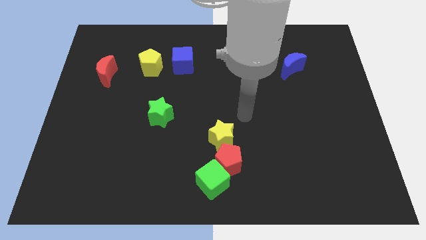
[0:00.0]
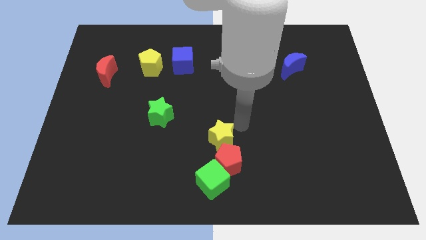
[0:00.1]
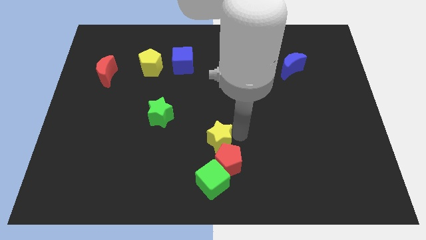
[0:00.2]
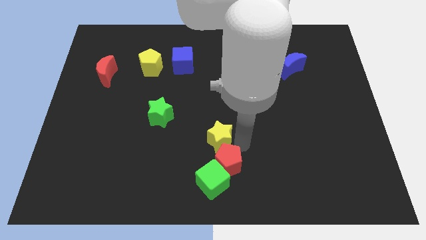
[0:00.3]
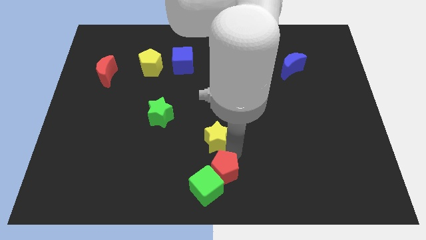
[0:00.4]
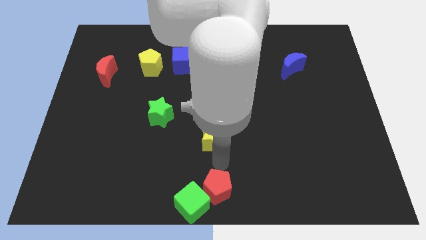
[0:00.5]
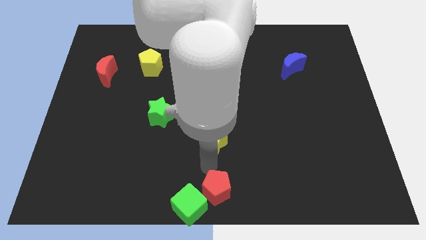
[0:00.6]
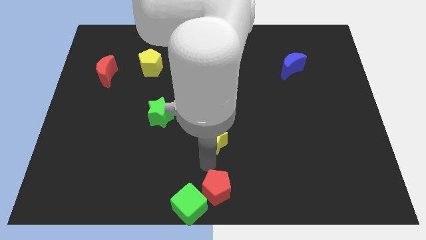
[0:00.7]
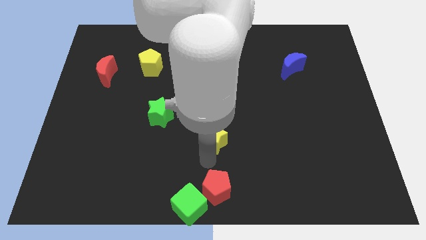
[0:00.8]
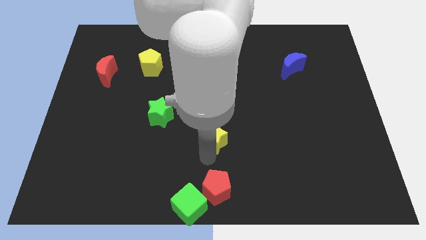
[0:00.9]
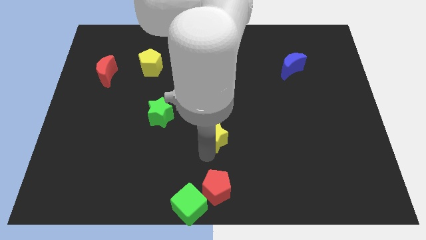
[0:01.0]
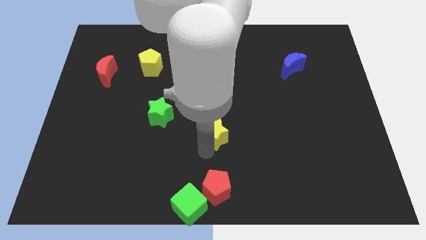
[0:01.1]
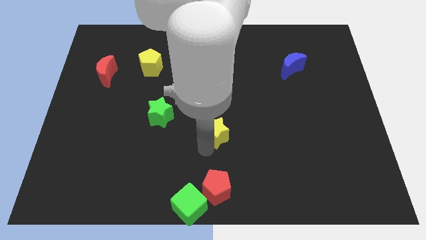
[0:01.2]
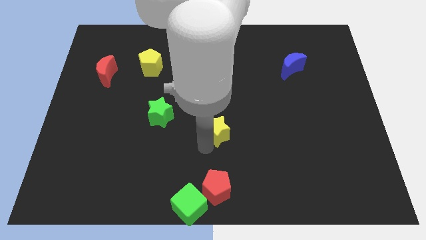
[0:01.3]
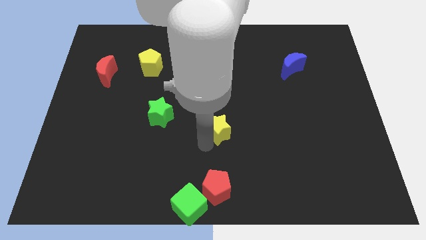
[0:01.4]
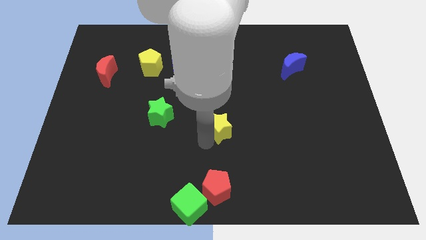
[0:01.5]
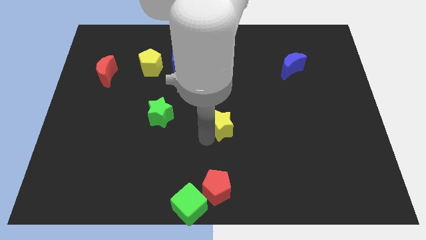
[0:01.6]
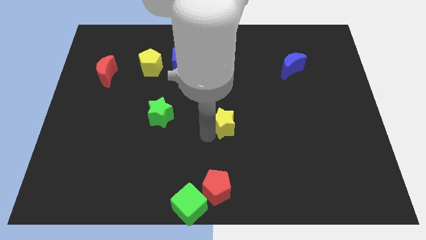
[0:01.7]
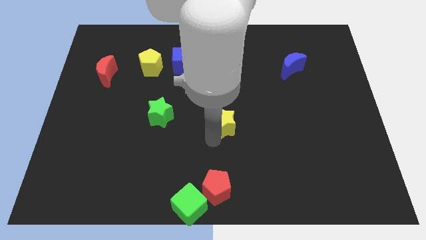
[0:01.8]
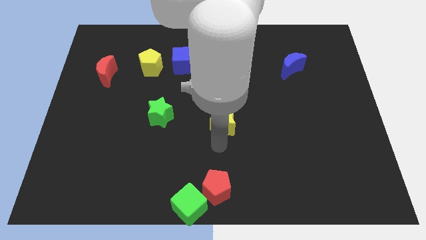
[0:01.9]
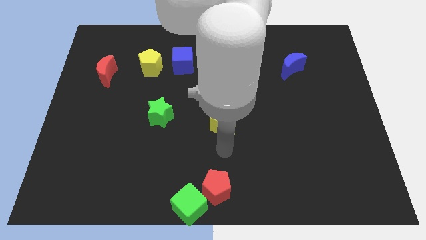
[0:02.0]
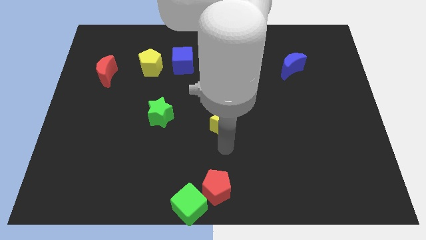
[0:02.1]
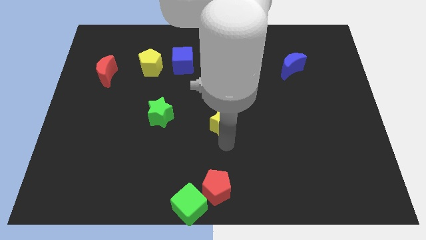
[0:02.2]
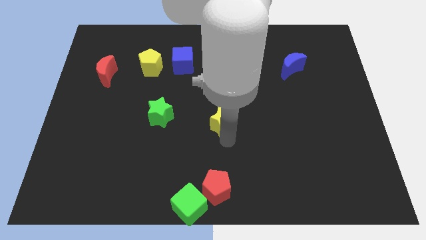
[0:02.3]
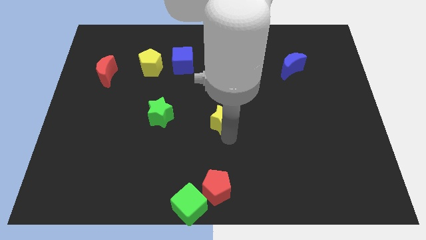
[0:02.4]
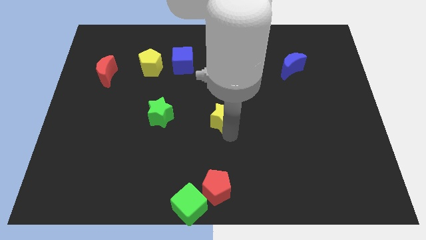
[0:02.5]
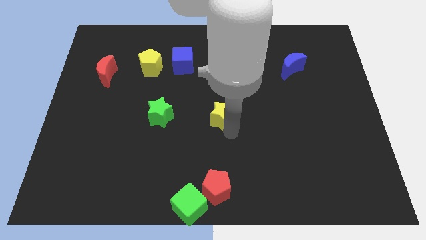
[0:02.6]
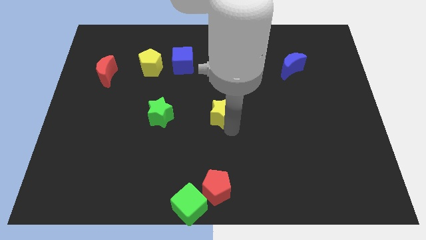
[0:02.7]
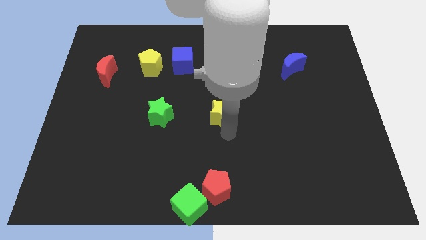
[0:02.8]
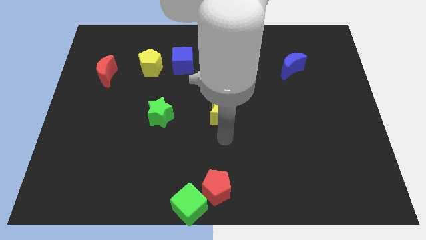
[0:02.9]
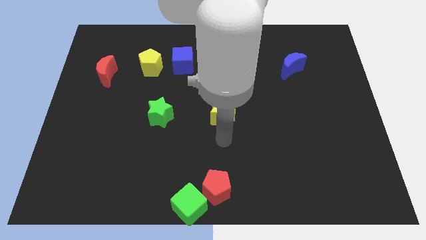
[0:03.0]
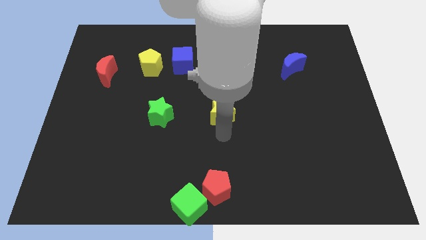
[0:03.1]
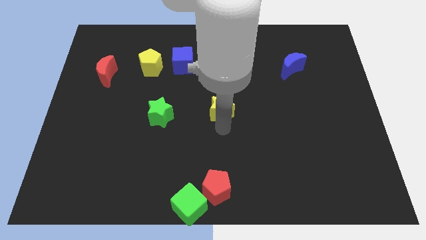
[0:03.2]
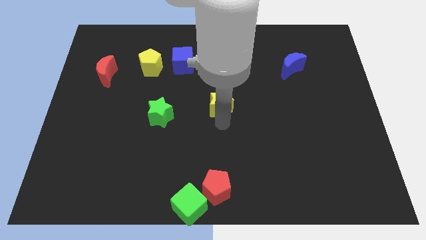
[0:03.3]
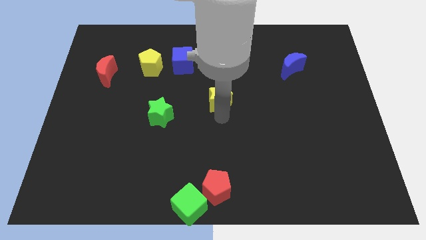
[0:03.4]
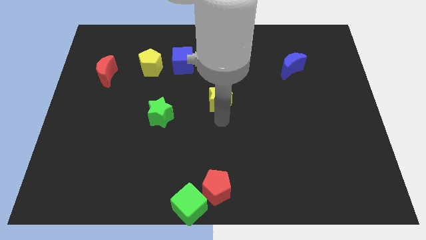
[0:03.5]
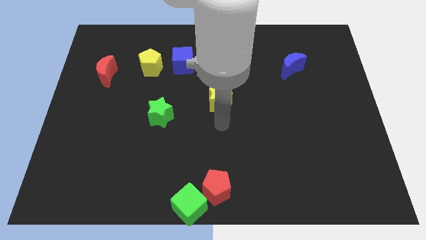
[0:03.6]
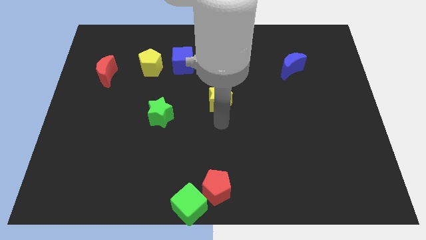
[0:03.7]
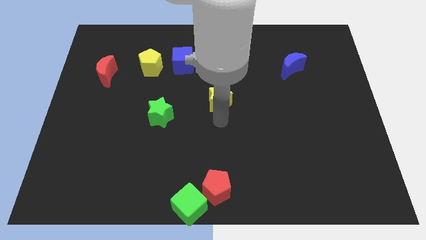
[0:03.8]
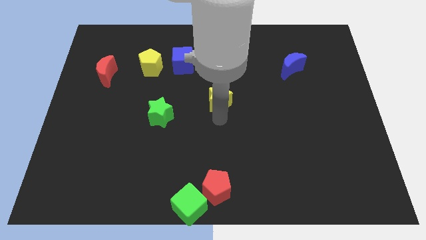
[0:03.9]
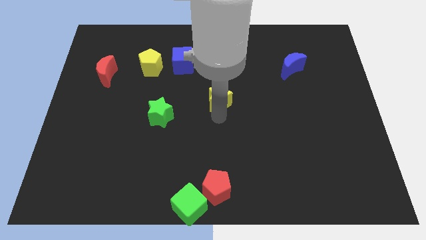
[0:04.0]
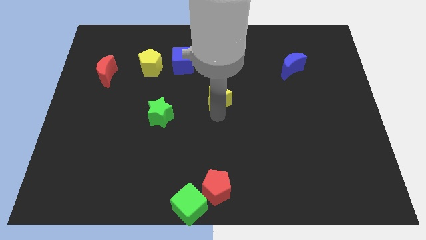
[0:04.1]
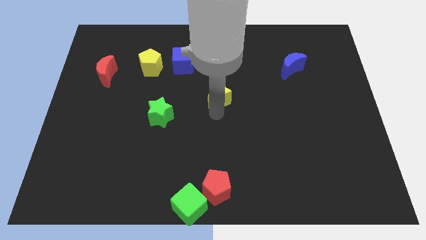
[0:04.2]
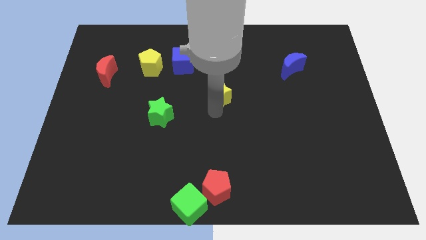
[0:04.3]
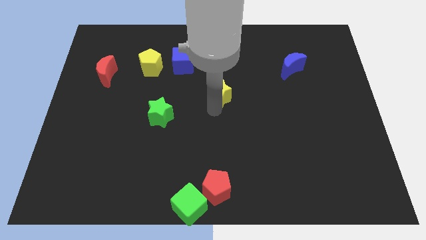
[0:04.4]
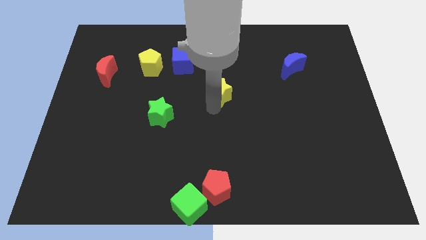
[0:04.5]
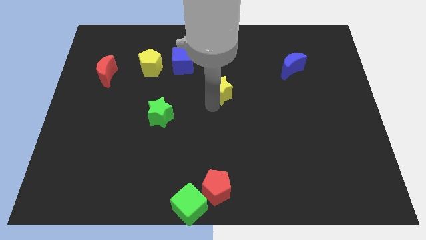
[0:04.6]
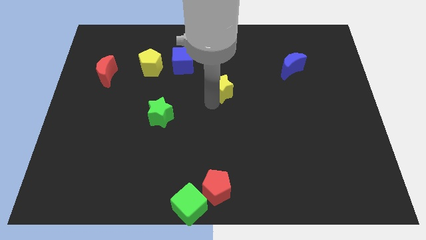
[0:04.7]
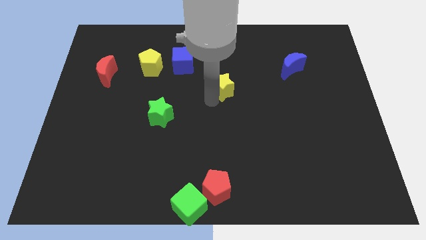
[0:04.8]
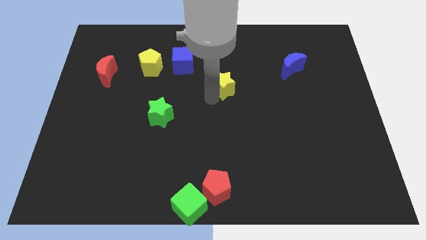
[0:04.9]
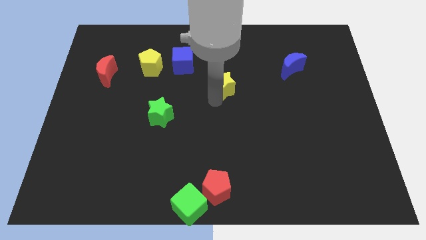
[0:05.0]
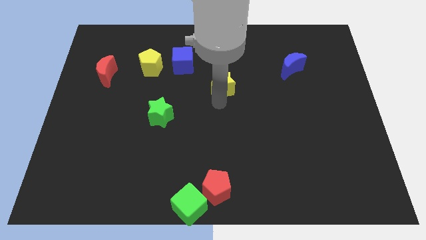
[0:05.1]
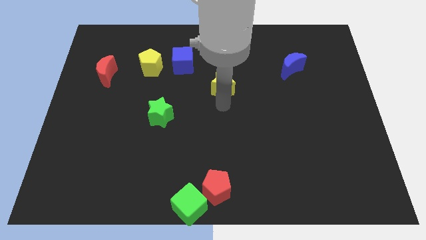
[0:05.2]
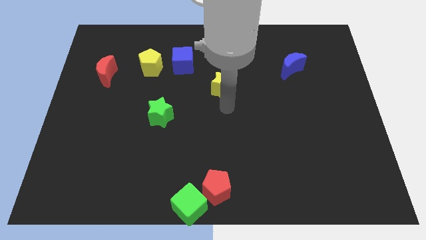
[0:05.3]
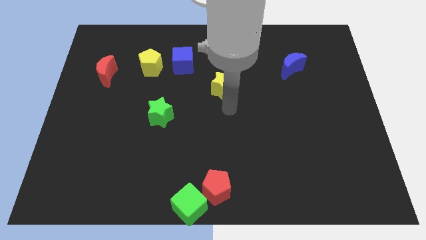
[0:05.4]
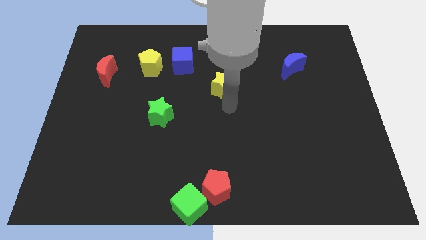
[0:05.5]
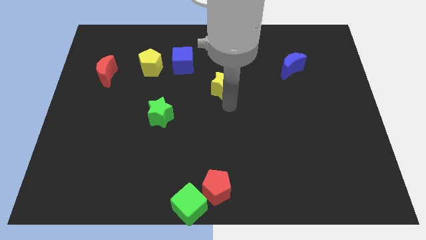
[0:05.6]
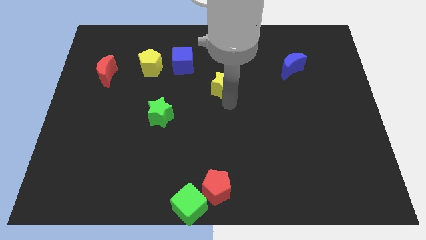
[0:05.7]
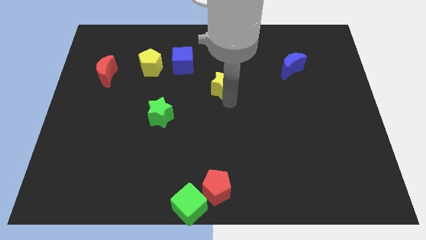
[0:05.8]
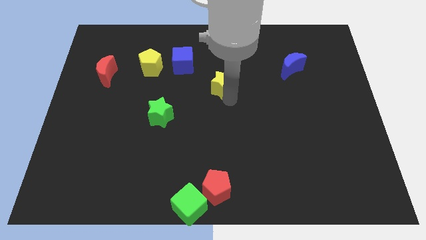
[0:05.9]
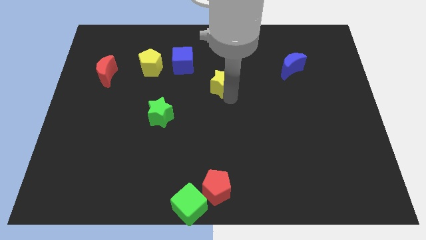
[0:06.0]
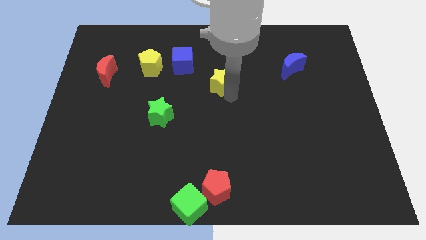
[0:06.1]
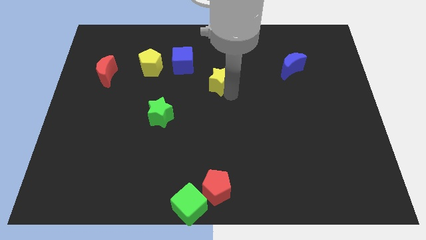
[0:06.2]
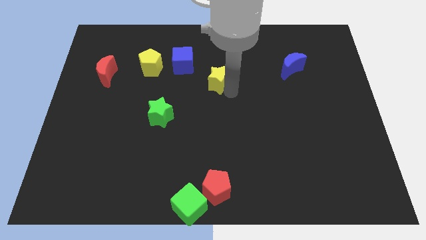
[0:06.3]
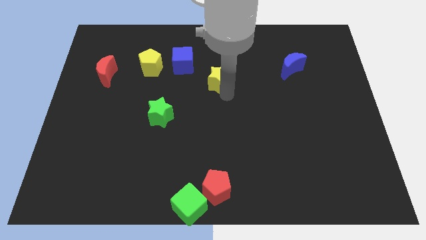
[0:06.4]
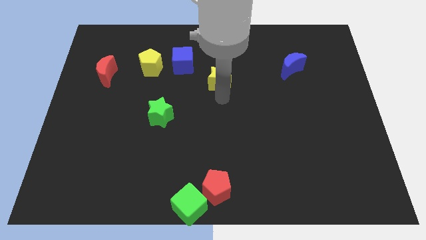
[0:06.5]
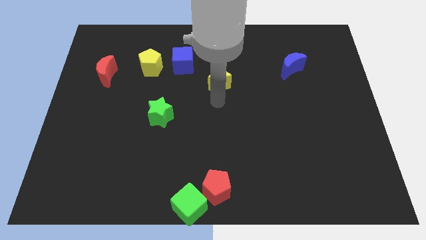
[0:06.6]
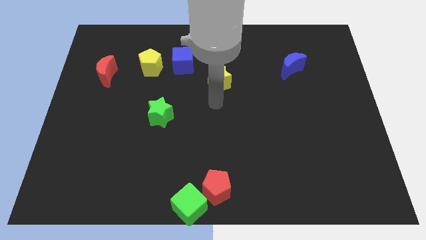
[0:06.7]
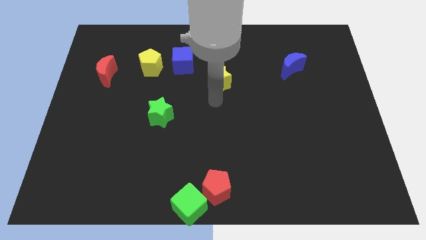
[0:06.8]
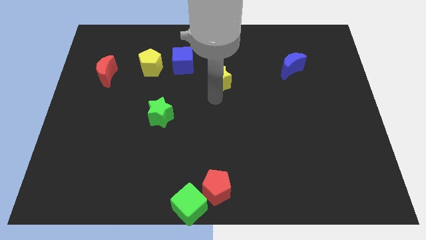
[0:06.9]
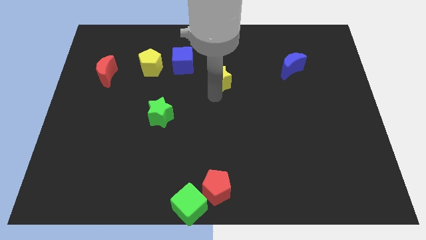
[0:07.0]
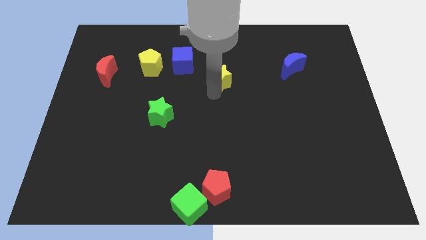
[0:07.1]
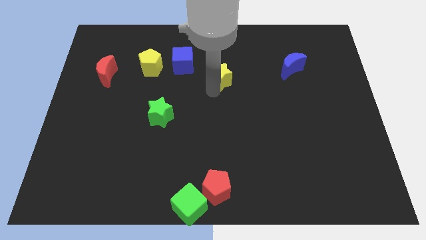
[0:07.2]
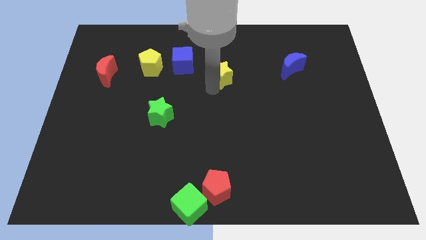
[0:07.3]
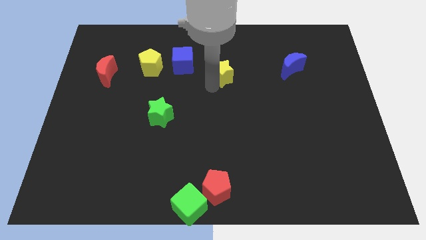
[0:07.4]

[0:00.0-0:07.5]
push the yellow star just right of the blue cube

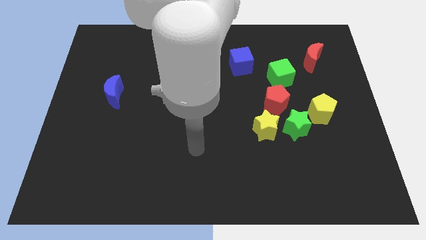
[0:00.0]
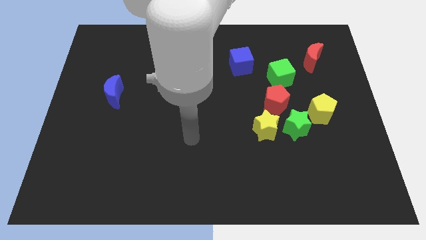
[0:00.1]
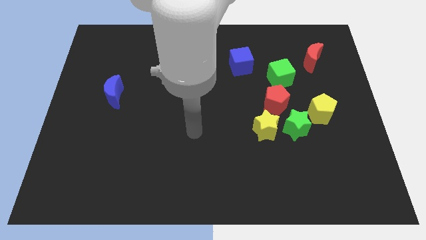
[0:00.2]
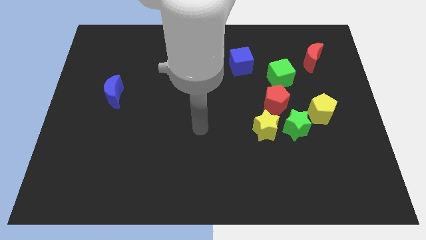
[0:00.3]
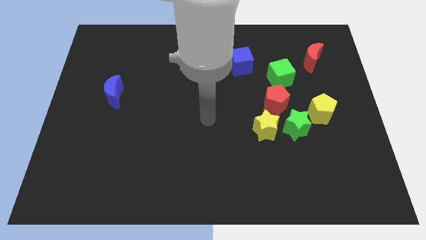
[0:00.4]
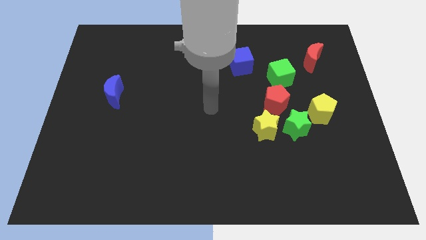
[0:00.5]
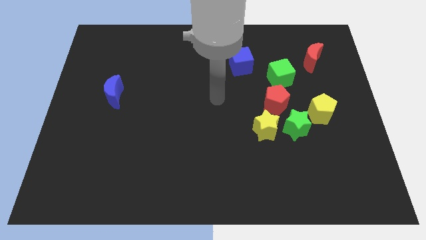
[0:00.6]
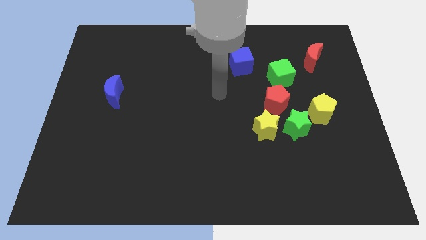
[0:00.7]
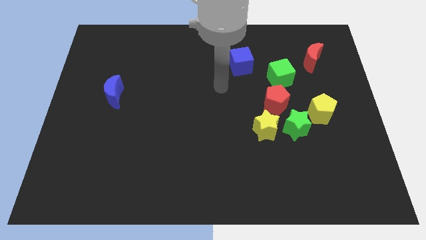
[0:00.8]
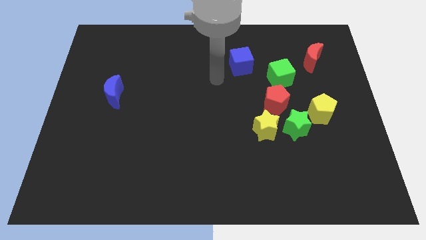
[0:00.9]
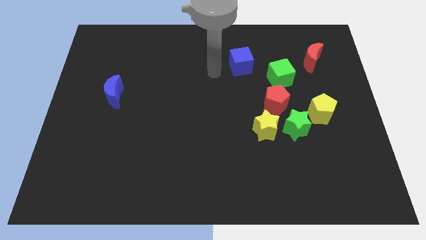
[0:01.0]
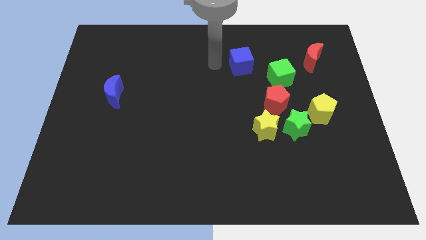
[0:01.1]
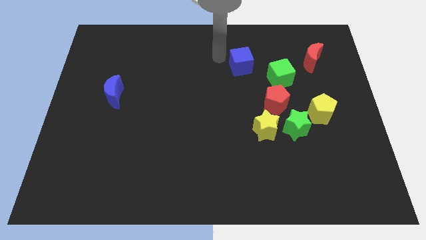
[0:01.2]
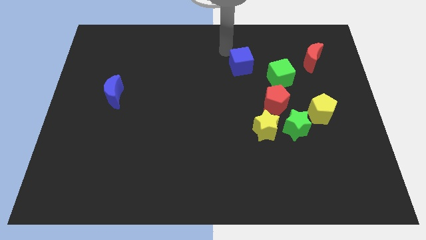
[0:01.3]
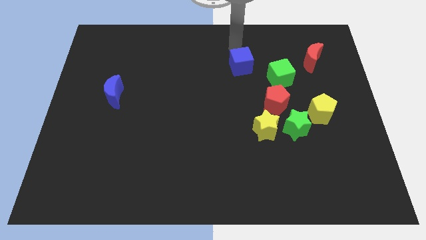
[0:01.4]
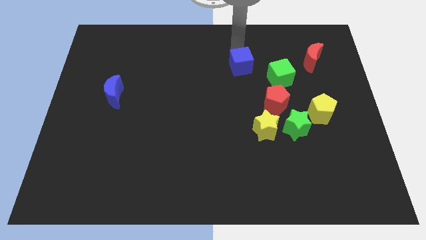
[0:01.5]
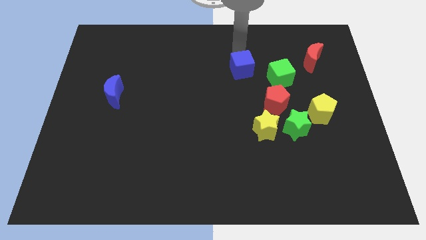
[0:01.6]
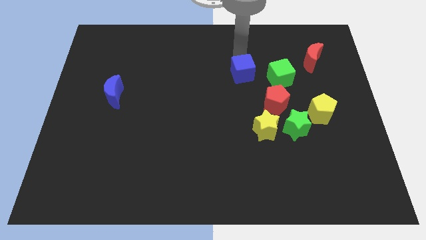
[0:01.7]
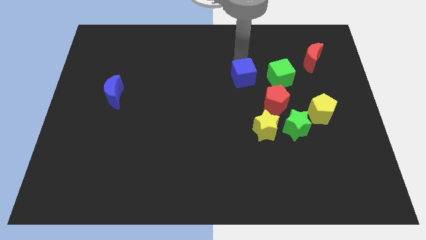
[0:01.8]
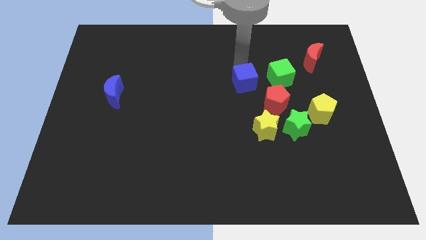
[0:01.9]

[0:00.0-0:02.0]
move the blue cube above the yellow star
